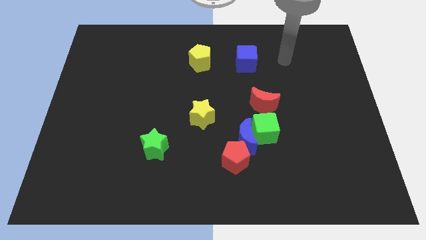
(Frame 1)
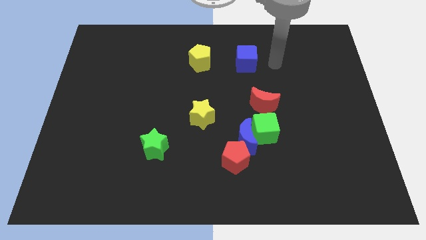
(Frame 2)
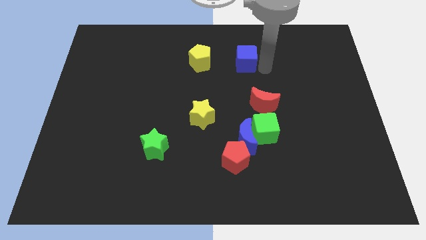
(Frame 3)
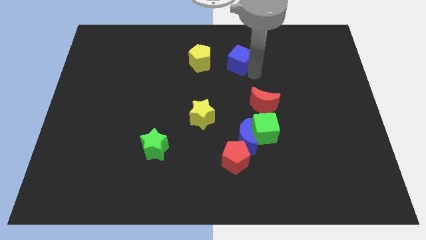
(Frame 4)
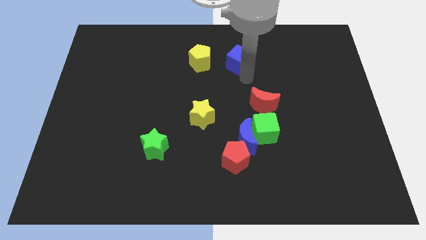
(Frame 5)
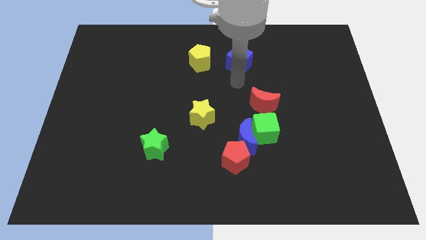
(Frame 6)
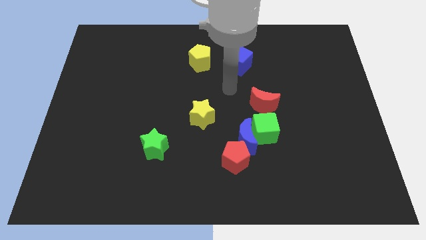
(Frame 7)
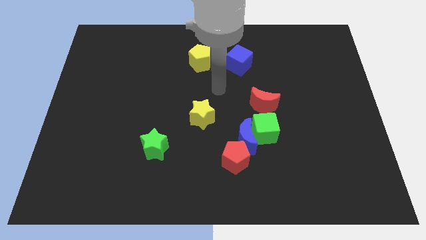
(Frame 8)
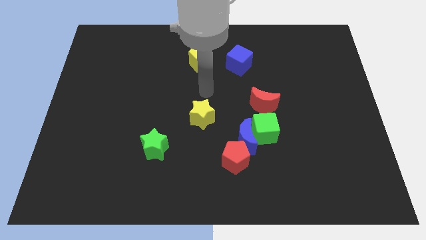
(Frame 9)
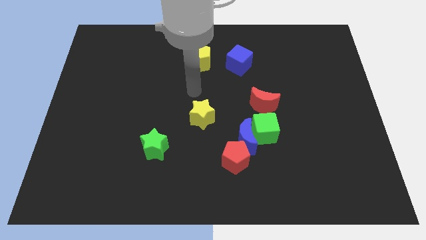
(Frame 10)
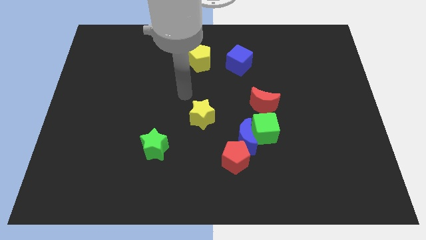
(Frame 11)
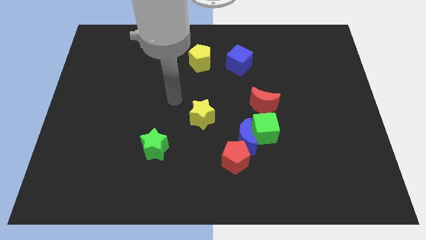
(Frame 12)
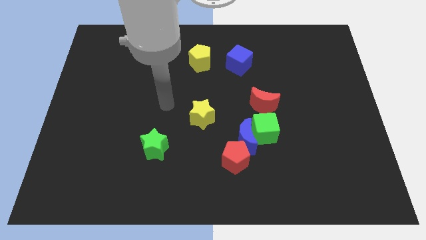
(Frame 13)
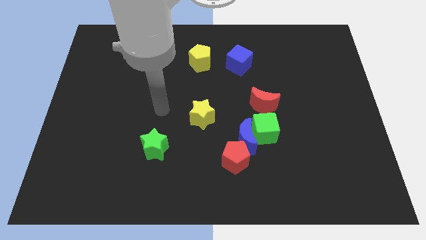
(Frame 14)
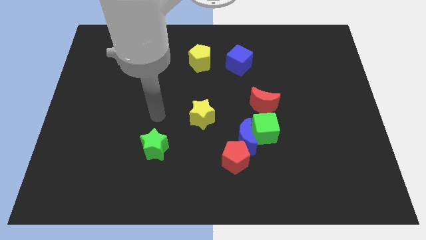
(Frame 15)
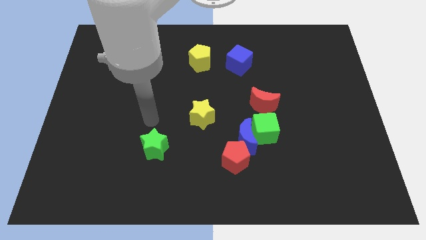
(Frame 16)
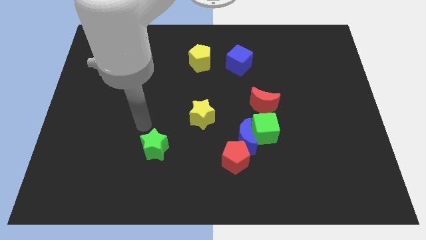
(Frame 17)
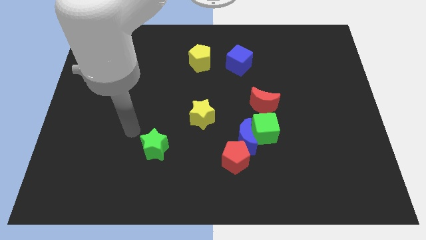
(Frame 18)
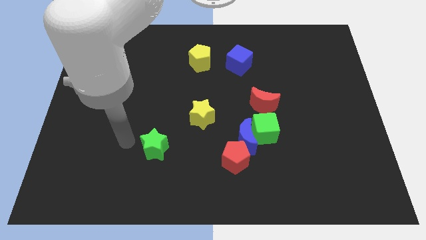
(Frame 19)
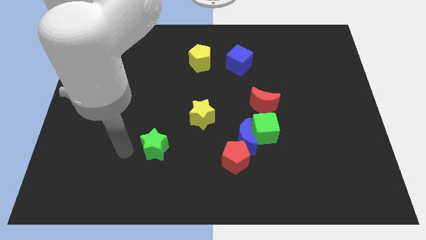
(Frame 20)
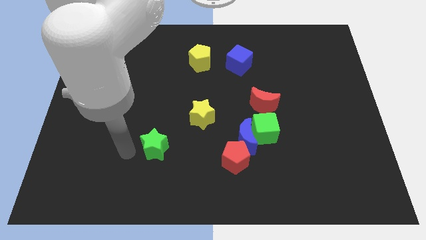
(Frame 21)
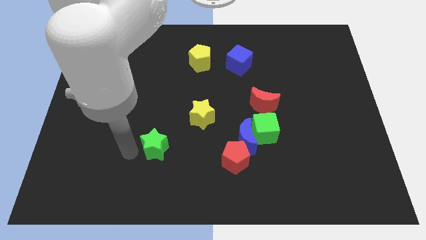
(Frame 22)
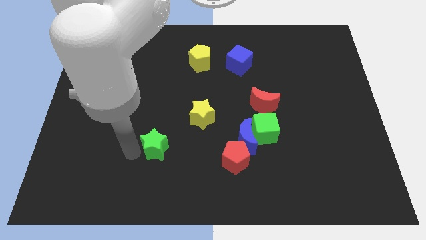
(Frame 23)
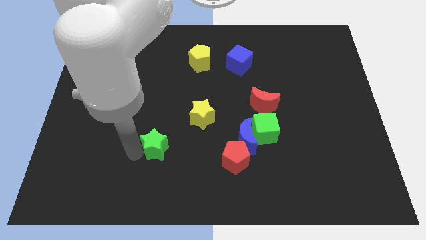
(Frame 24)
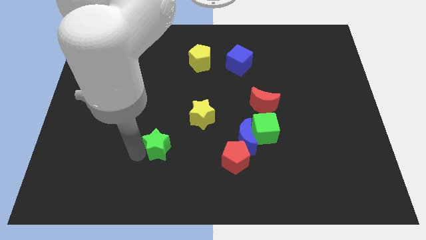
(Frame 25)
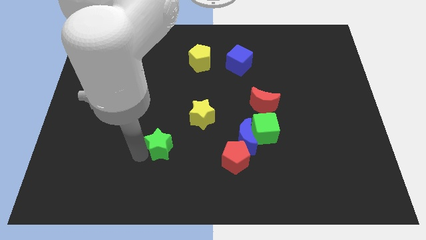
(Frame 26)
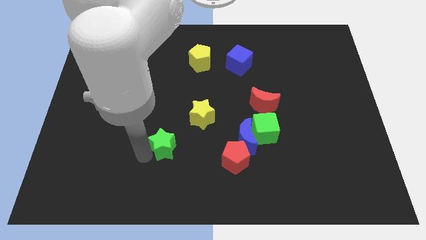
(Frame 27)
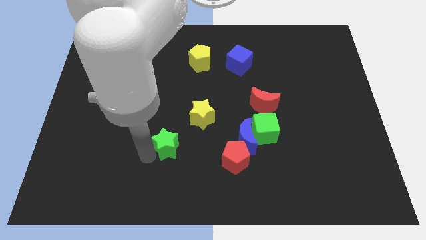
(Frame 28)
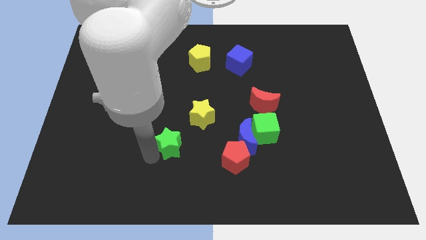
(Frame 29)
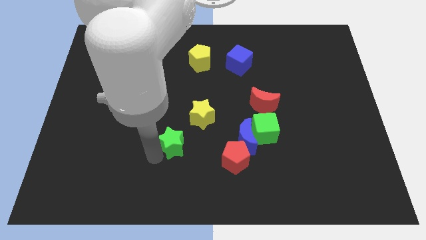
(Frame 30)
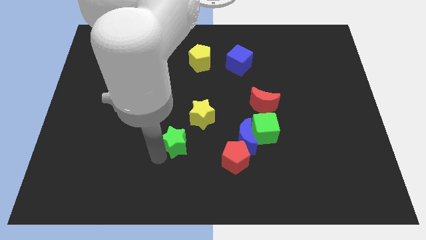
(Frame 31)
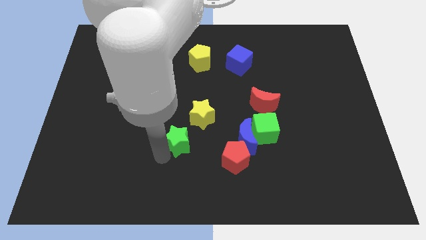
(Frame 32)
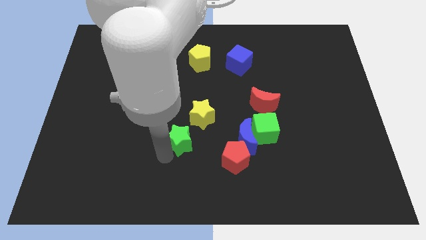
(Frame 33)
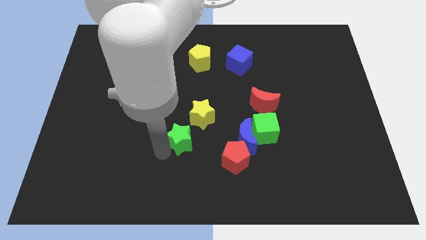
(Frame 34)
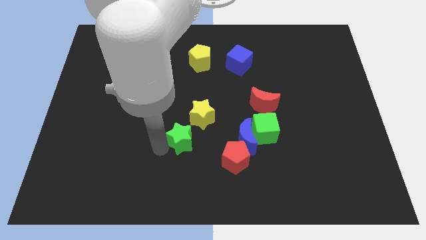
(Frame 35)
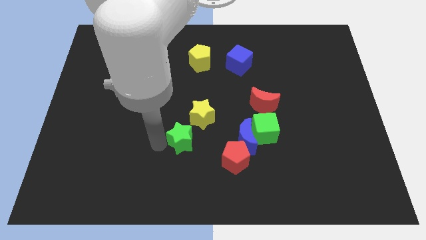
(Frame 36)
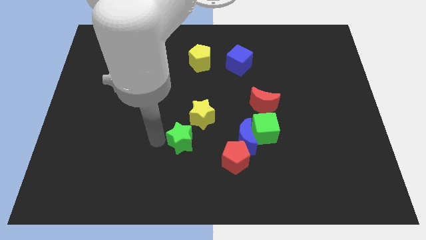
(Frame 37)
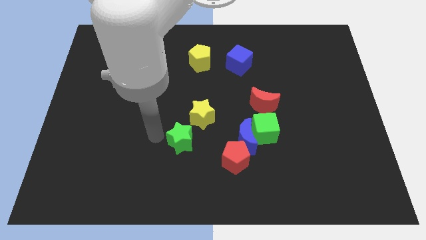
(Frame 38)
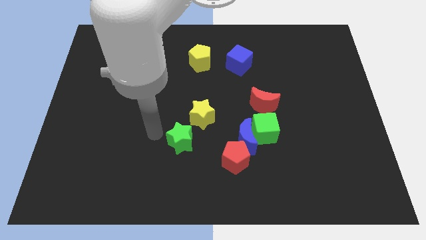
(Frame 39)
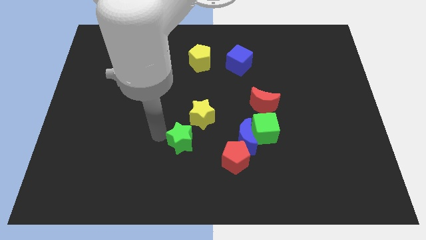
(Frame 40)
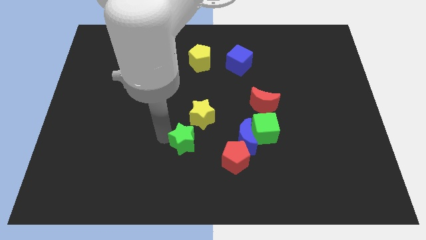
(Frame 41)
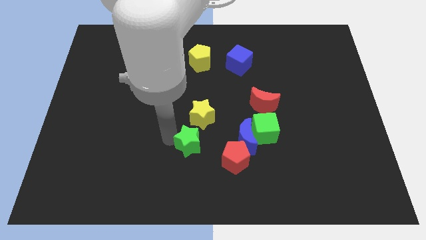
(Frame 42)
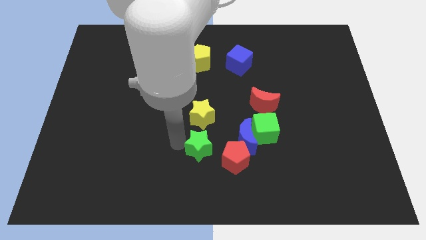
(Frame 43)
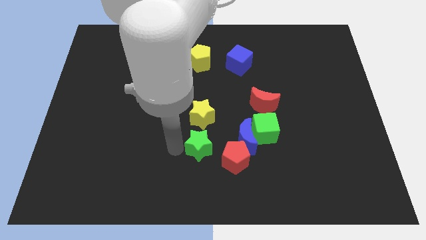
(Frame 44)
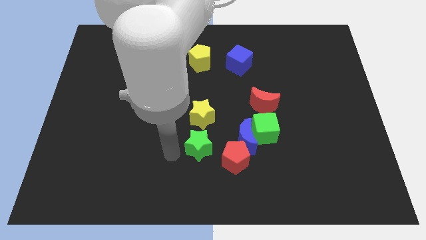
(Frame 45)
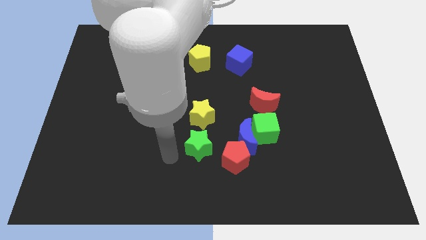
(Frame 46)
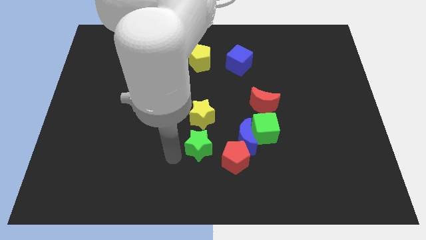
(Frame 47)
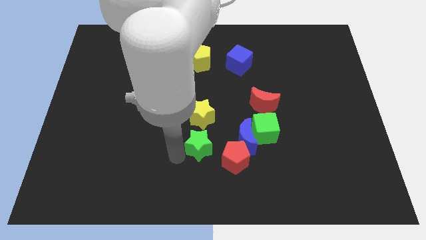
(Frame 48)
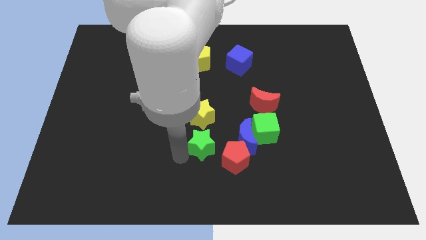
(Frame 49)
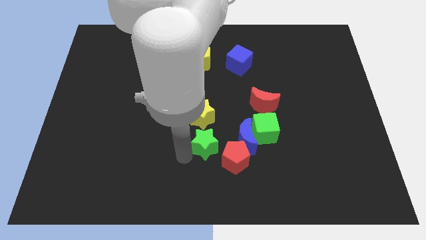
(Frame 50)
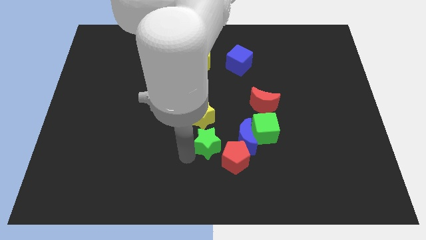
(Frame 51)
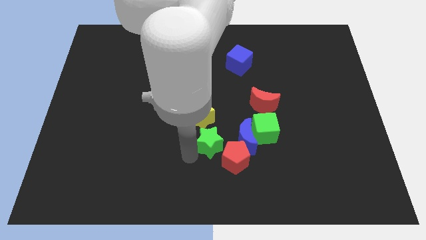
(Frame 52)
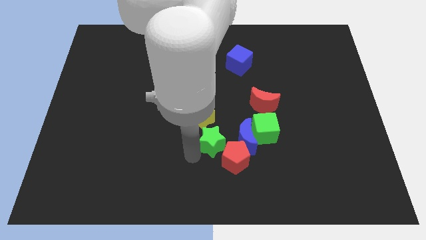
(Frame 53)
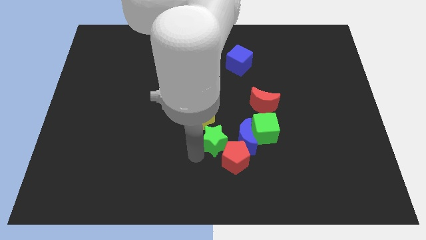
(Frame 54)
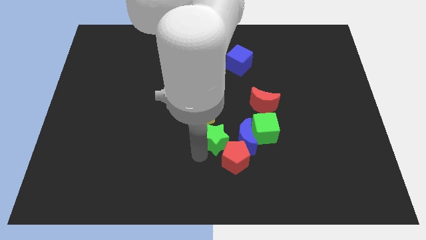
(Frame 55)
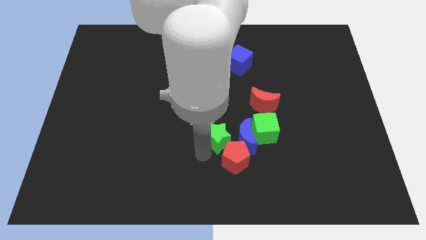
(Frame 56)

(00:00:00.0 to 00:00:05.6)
push the green star towards the blue moon
